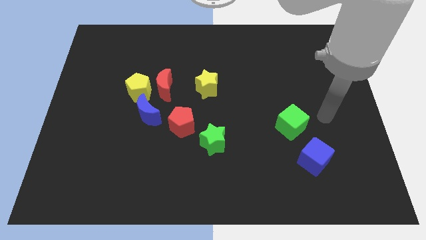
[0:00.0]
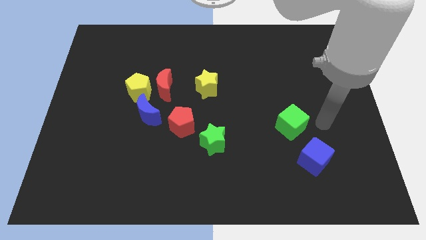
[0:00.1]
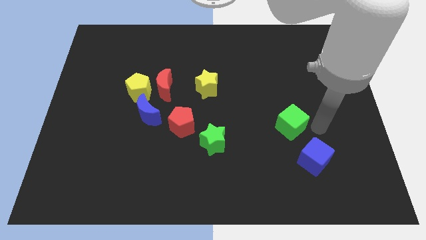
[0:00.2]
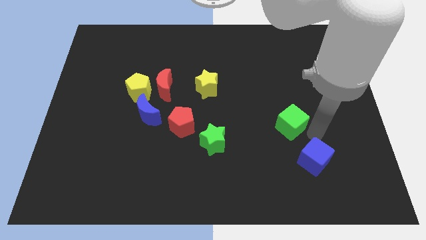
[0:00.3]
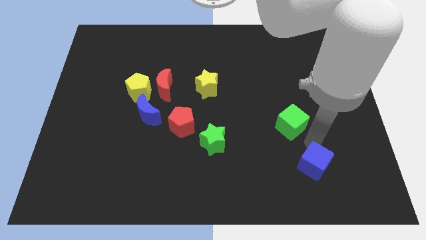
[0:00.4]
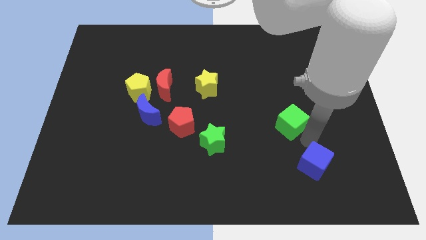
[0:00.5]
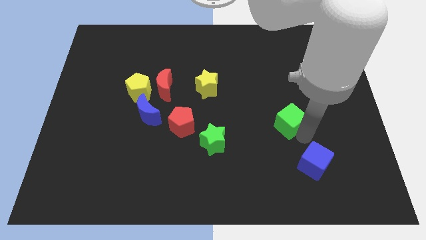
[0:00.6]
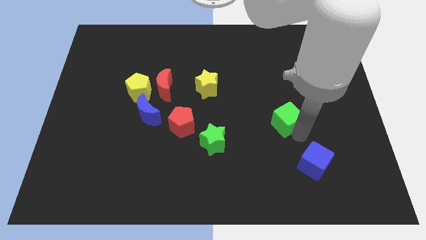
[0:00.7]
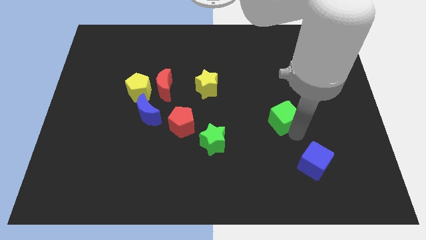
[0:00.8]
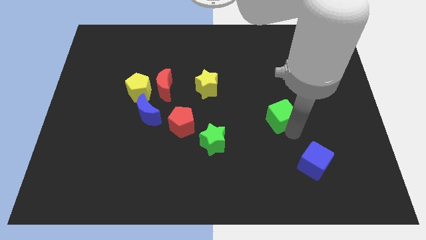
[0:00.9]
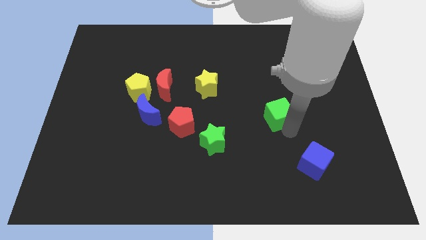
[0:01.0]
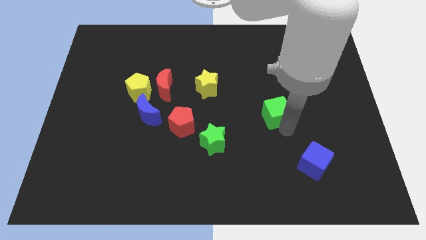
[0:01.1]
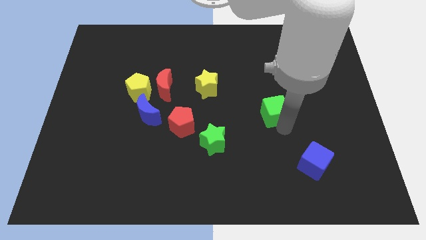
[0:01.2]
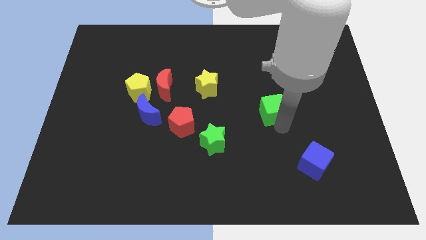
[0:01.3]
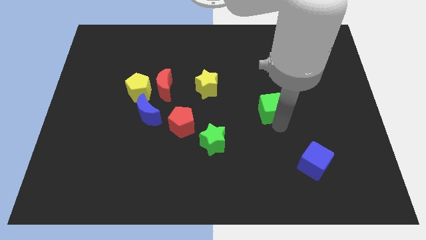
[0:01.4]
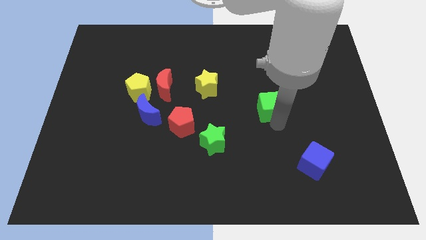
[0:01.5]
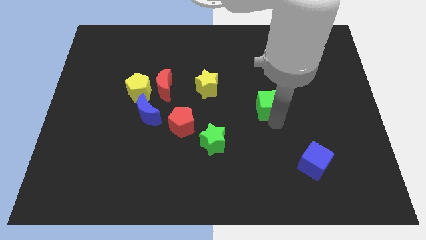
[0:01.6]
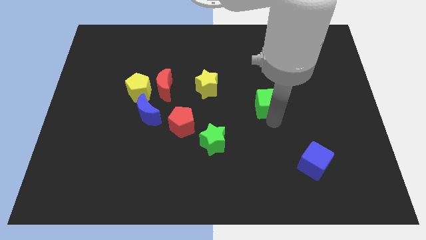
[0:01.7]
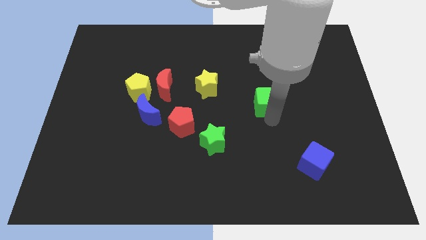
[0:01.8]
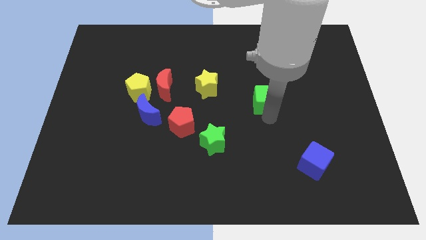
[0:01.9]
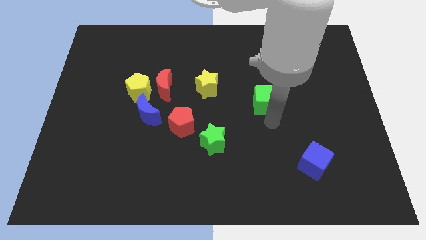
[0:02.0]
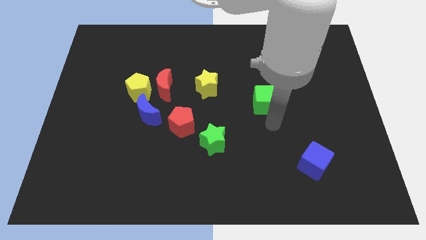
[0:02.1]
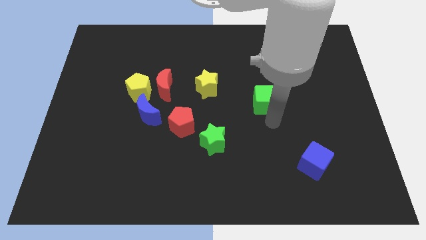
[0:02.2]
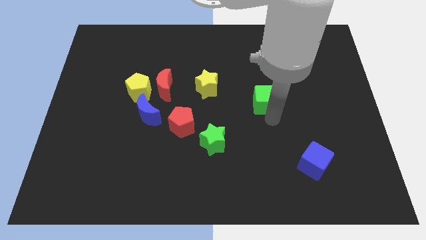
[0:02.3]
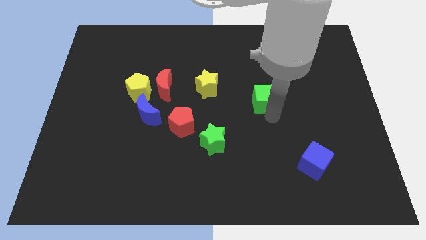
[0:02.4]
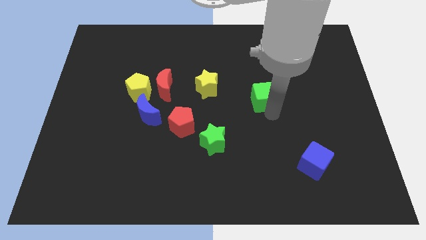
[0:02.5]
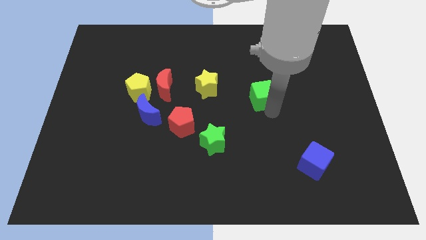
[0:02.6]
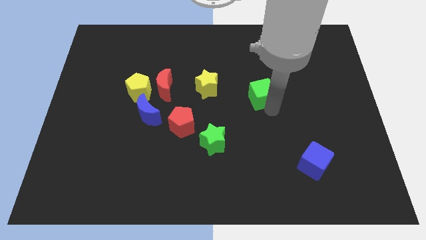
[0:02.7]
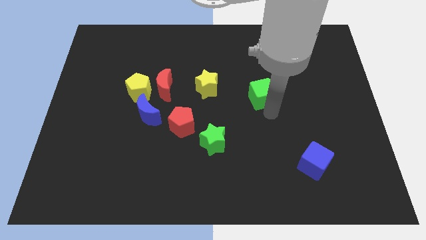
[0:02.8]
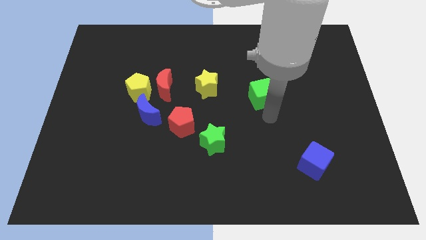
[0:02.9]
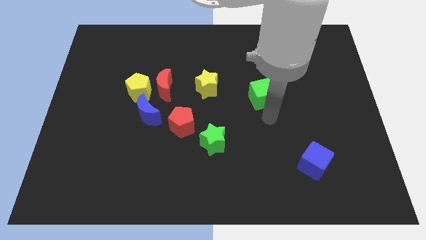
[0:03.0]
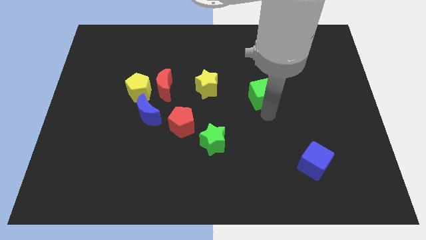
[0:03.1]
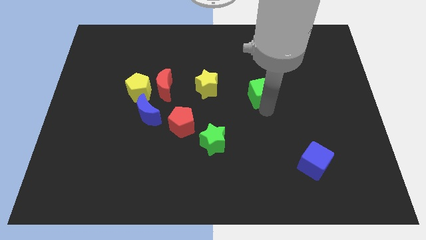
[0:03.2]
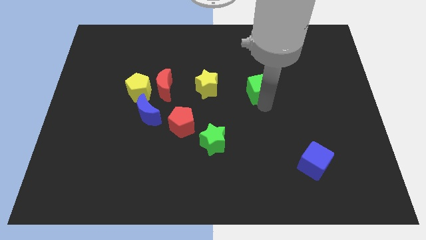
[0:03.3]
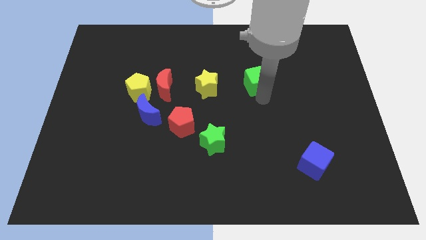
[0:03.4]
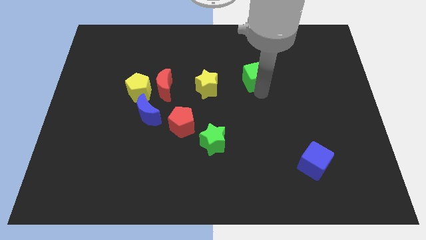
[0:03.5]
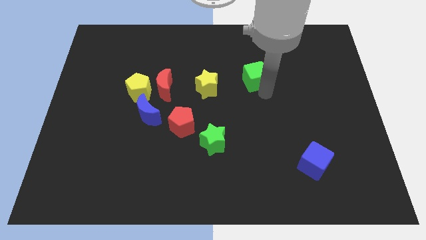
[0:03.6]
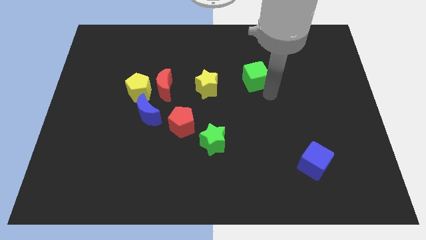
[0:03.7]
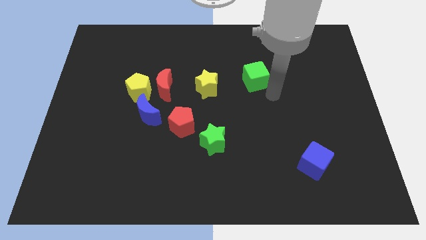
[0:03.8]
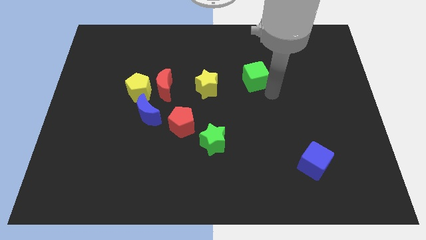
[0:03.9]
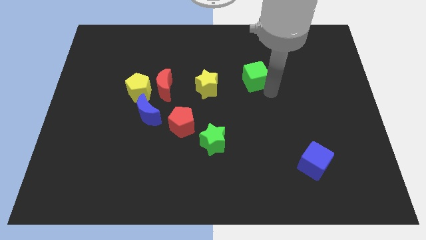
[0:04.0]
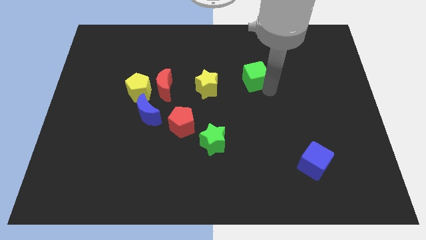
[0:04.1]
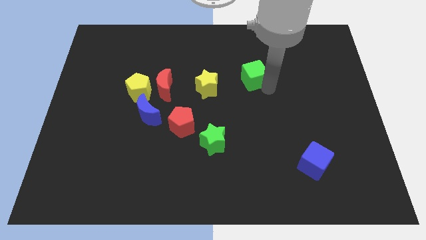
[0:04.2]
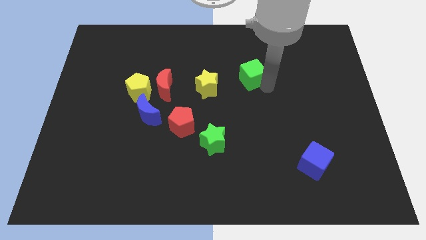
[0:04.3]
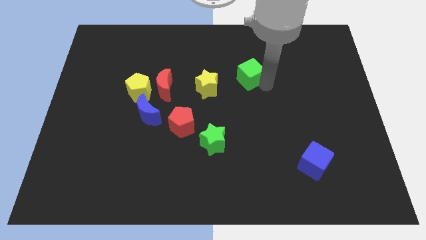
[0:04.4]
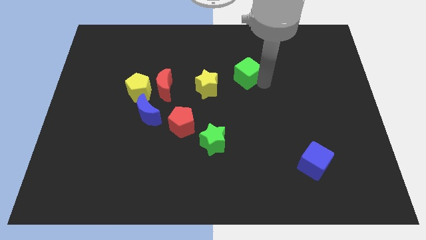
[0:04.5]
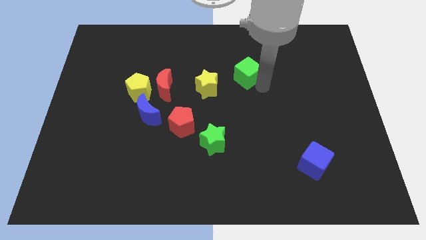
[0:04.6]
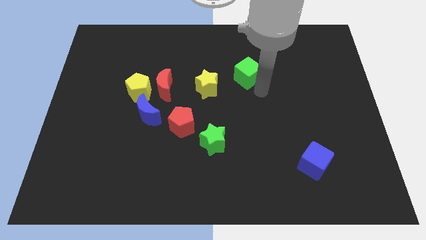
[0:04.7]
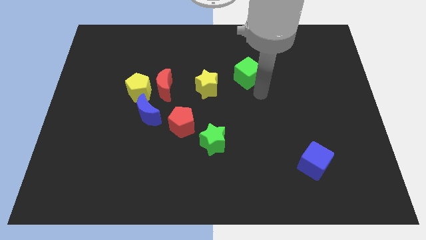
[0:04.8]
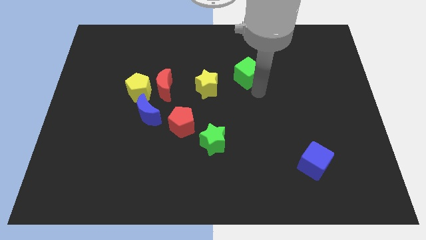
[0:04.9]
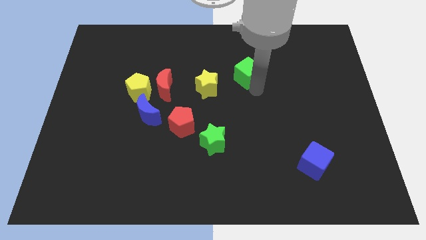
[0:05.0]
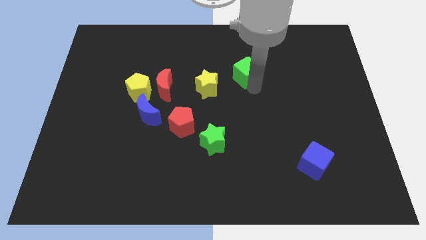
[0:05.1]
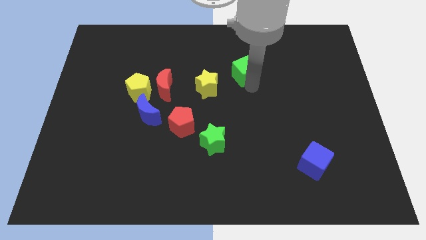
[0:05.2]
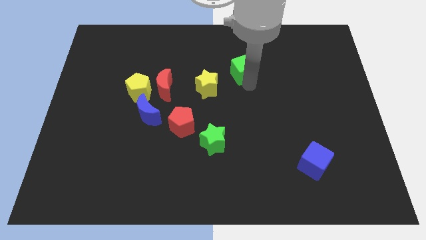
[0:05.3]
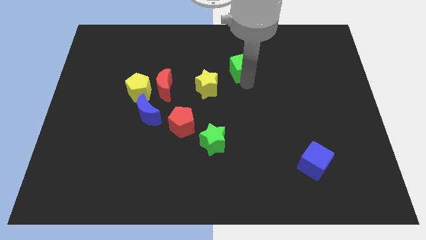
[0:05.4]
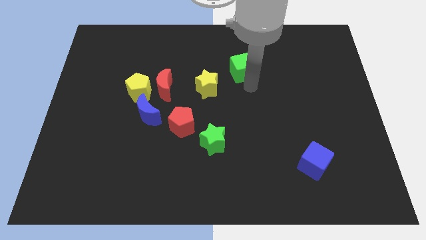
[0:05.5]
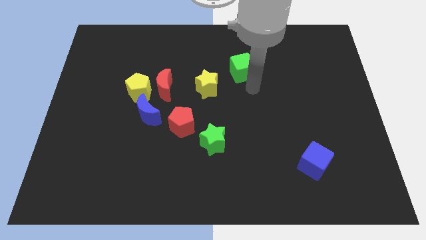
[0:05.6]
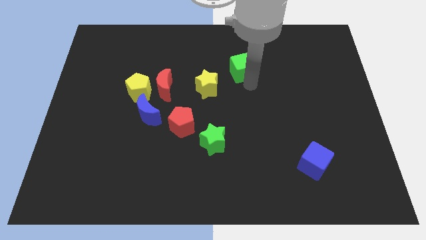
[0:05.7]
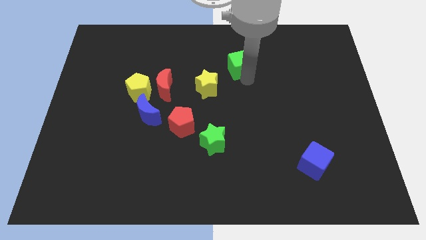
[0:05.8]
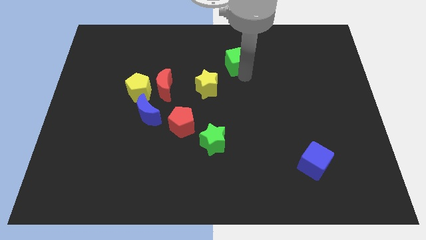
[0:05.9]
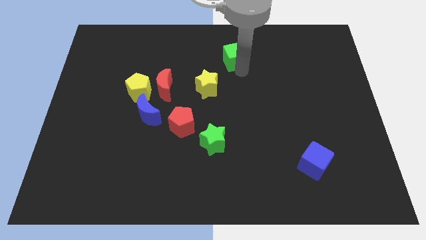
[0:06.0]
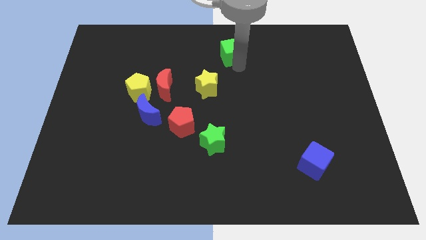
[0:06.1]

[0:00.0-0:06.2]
move the green cube to the towards your base
